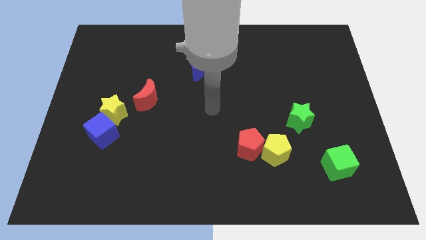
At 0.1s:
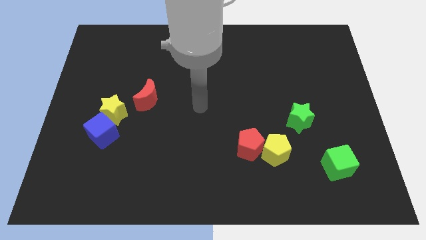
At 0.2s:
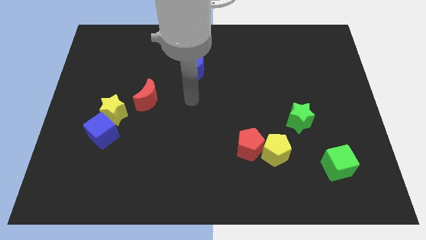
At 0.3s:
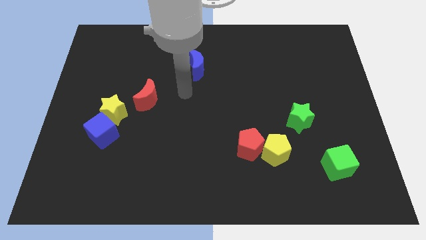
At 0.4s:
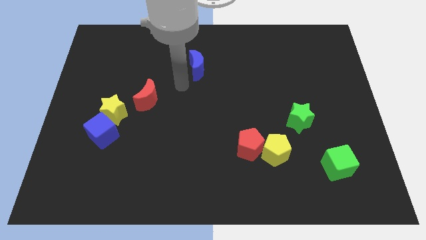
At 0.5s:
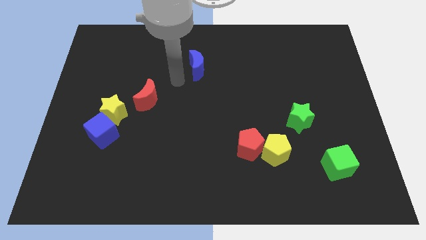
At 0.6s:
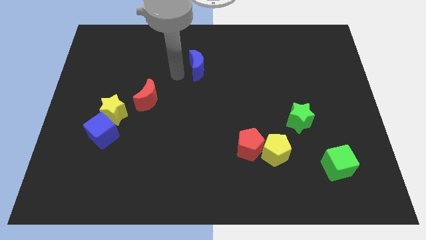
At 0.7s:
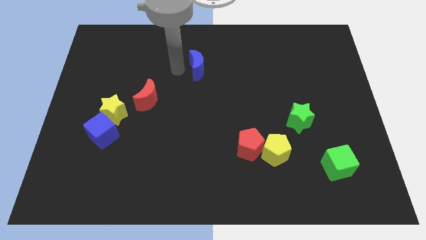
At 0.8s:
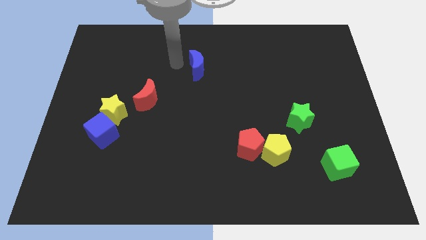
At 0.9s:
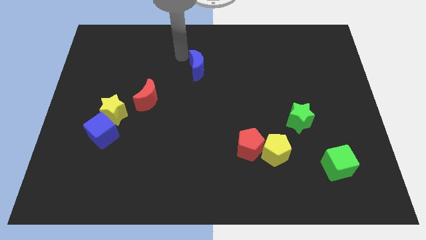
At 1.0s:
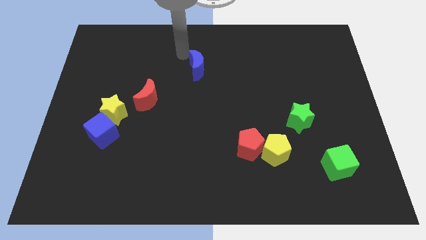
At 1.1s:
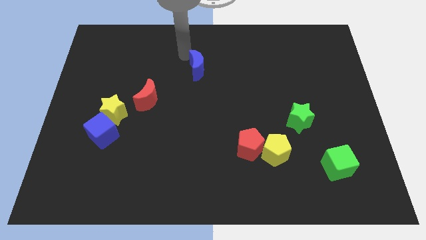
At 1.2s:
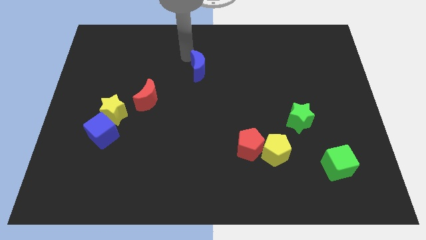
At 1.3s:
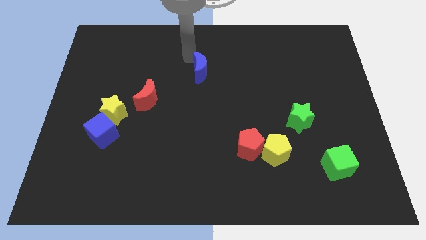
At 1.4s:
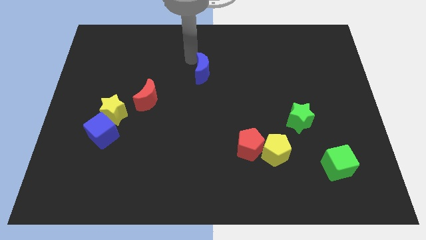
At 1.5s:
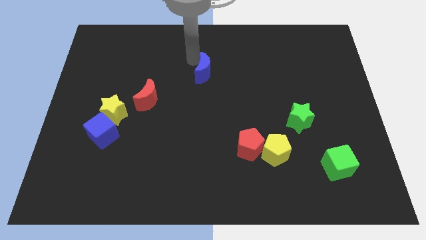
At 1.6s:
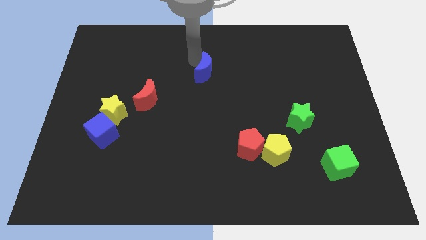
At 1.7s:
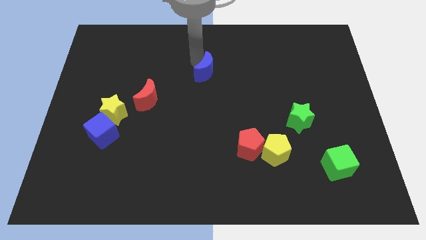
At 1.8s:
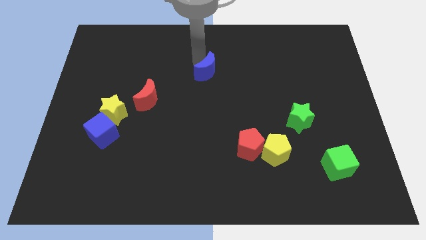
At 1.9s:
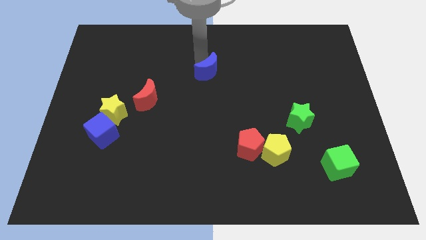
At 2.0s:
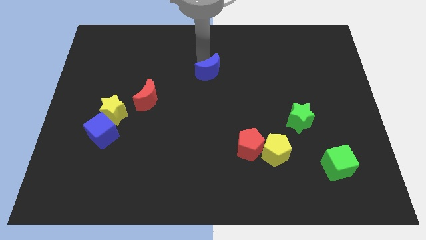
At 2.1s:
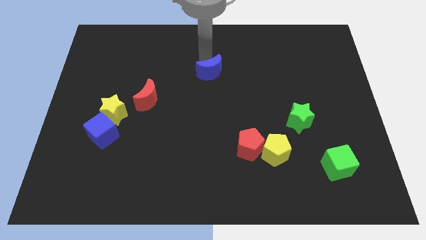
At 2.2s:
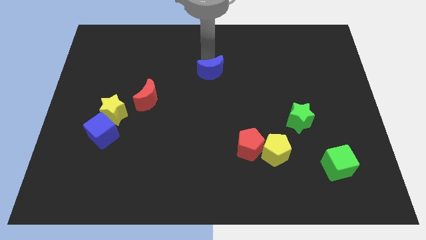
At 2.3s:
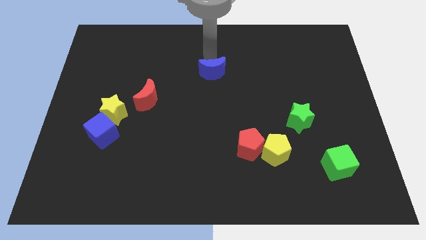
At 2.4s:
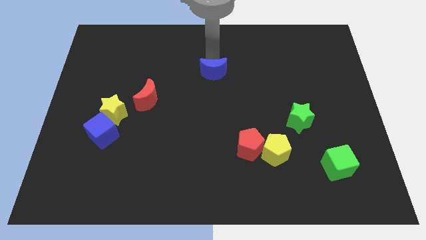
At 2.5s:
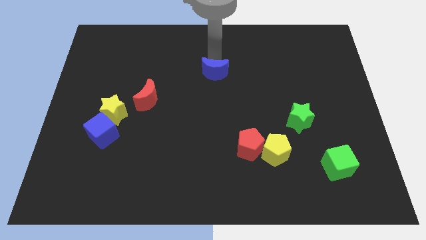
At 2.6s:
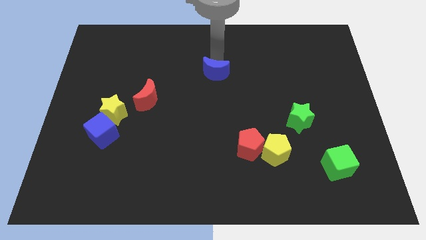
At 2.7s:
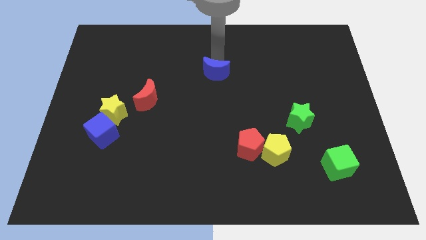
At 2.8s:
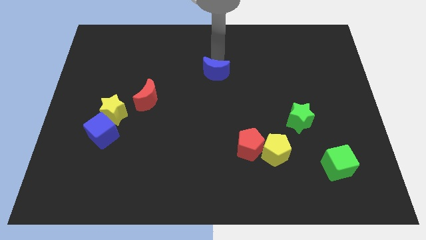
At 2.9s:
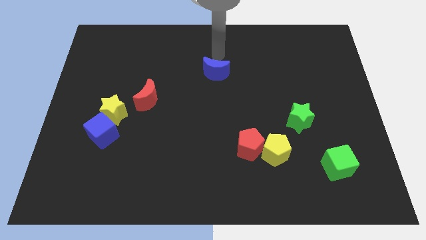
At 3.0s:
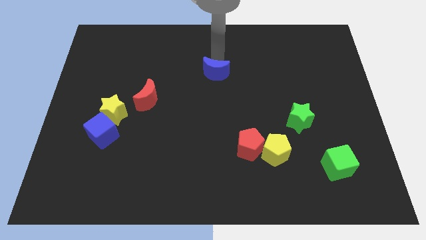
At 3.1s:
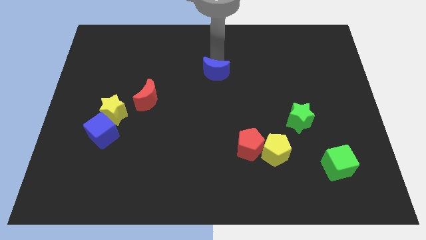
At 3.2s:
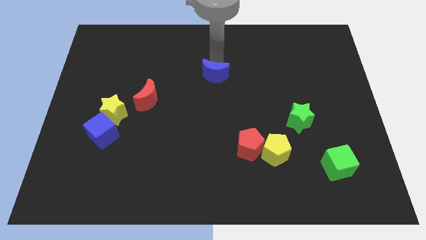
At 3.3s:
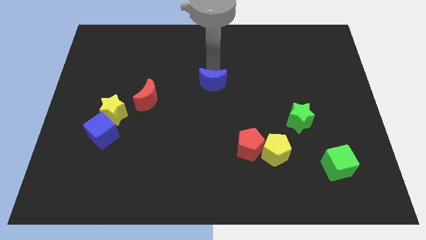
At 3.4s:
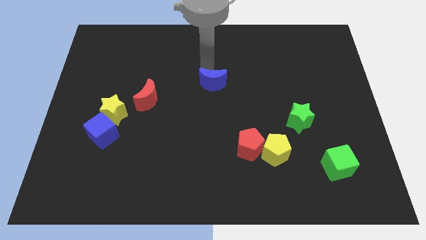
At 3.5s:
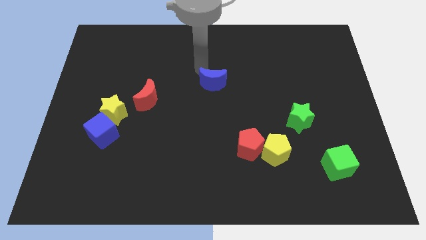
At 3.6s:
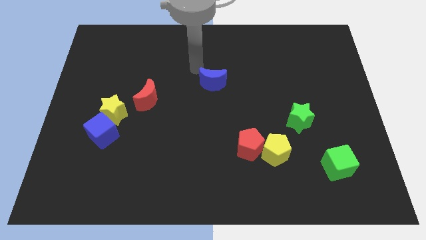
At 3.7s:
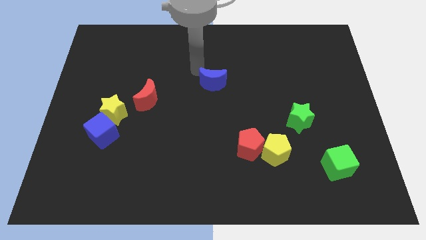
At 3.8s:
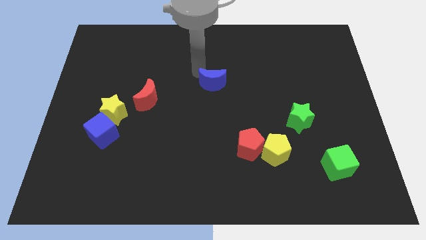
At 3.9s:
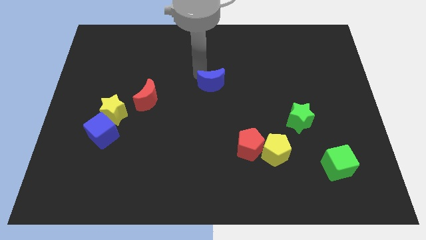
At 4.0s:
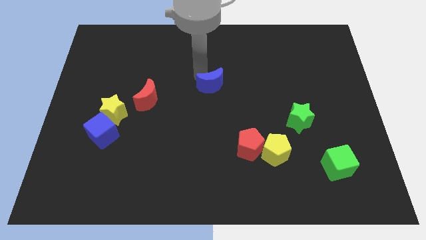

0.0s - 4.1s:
slide the blue moon downwards and right a little

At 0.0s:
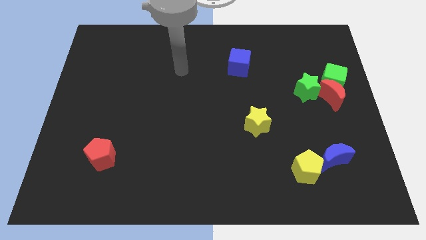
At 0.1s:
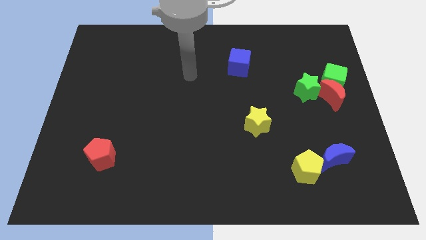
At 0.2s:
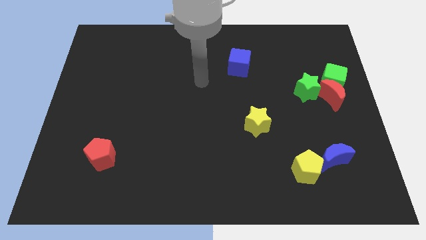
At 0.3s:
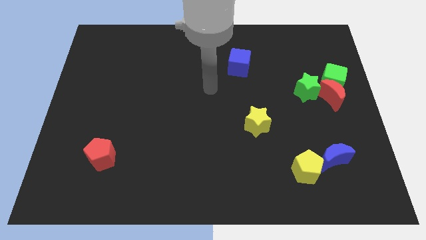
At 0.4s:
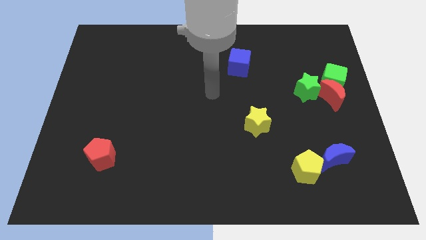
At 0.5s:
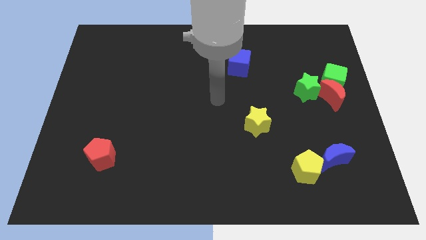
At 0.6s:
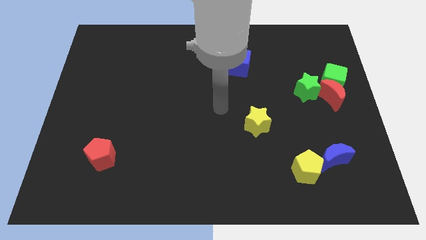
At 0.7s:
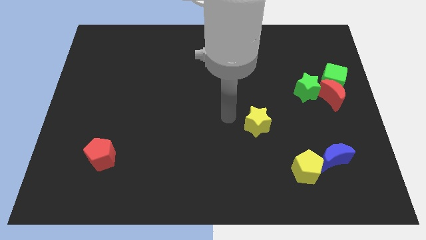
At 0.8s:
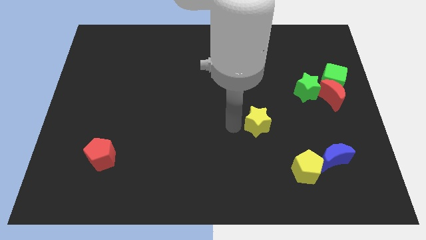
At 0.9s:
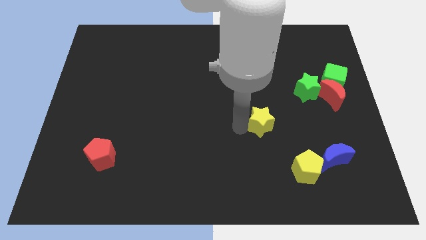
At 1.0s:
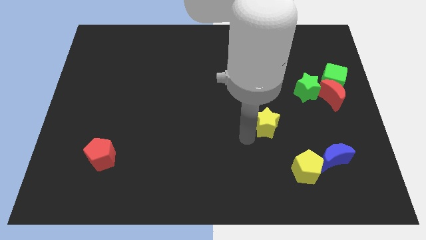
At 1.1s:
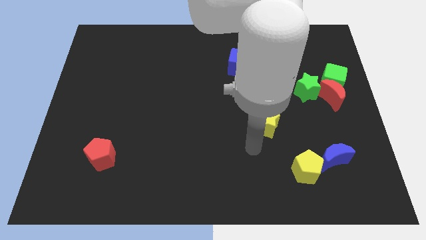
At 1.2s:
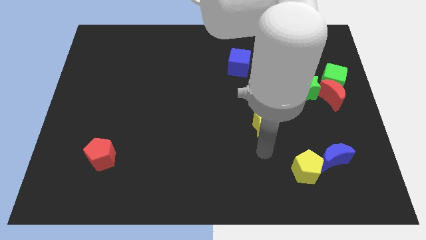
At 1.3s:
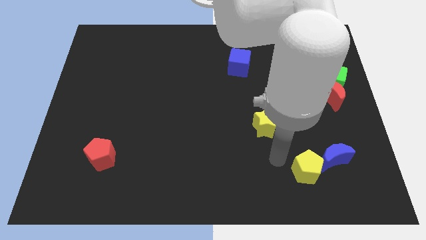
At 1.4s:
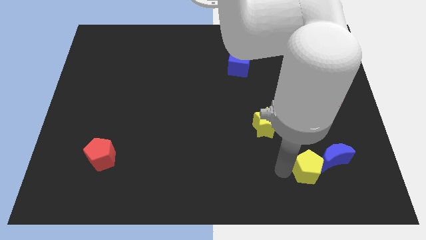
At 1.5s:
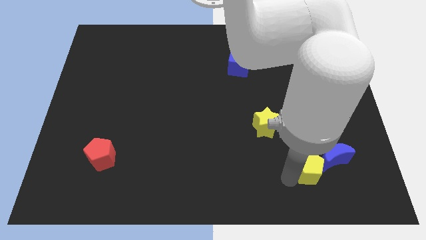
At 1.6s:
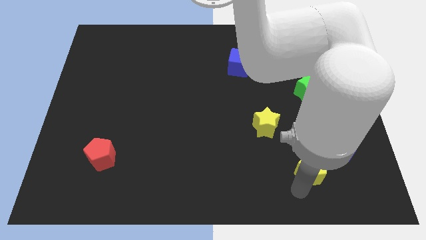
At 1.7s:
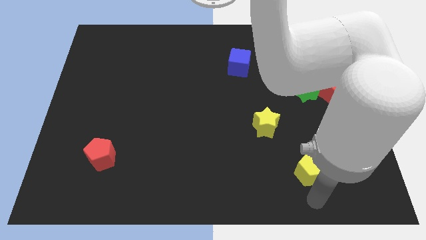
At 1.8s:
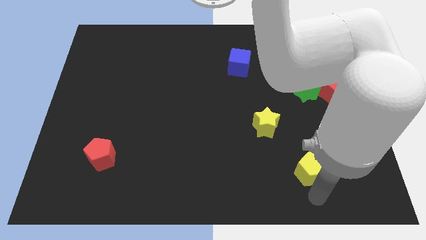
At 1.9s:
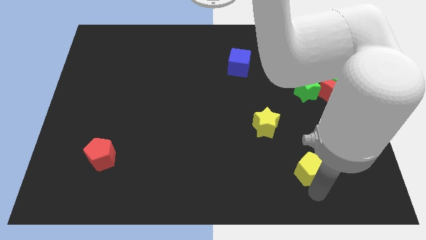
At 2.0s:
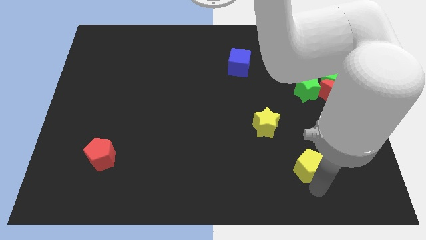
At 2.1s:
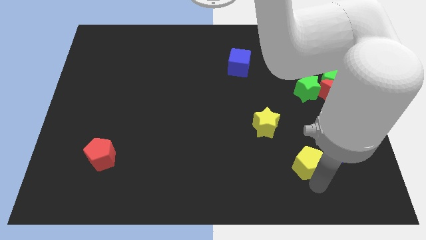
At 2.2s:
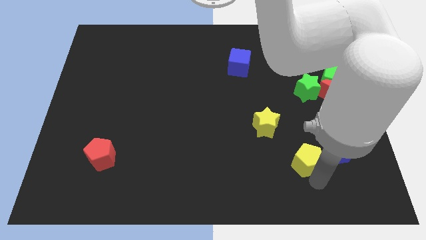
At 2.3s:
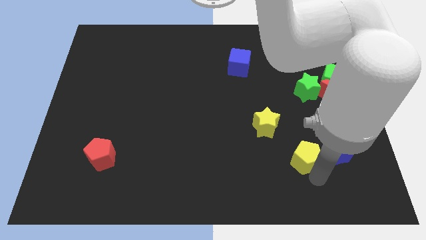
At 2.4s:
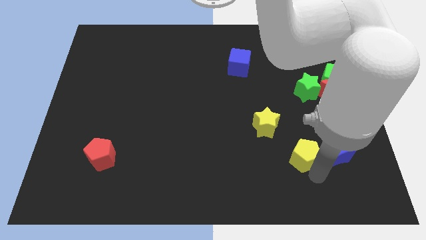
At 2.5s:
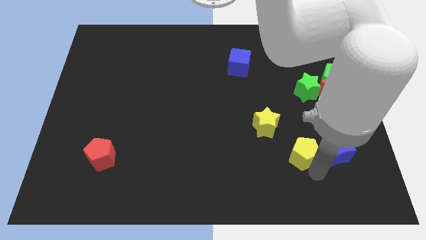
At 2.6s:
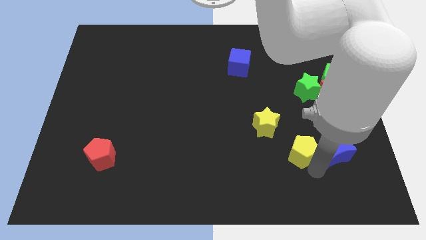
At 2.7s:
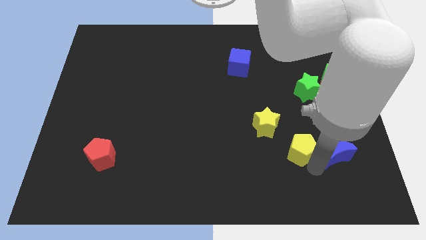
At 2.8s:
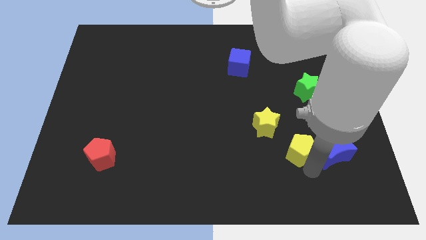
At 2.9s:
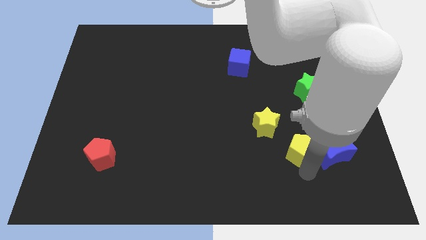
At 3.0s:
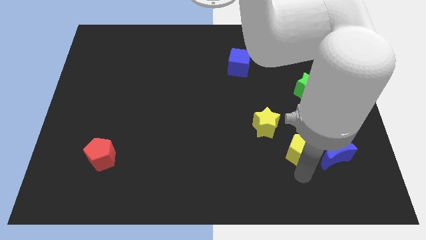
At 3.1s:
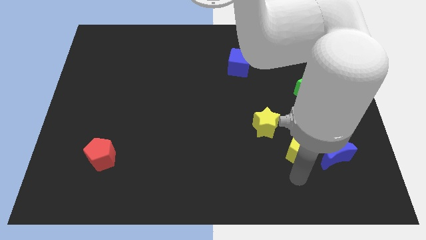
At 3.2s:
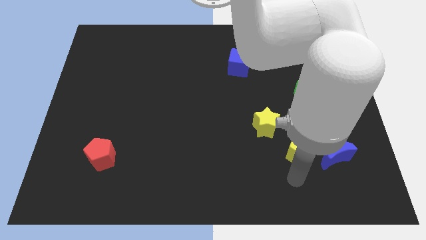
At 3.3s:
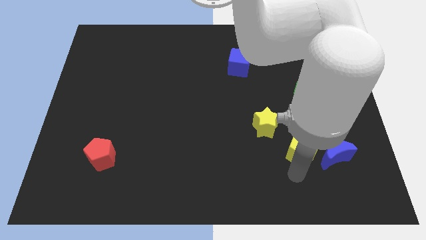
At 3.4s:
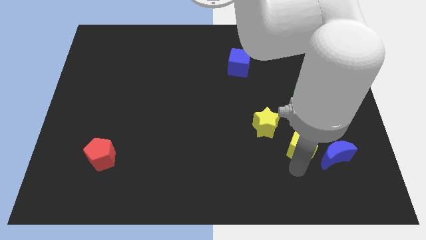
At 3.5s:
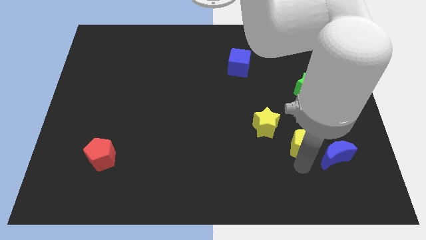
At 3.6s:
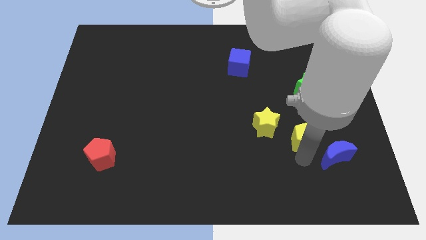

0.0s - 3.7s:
slide the yellow pentagon up a bit

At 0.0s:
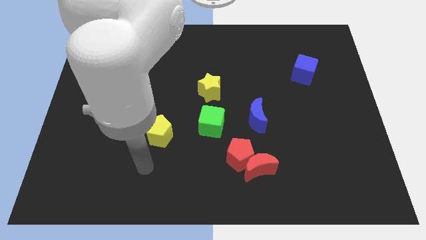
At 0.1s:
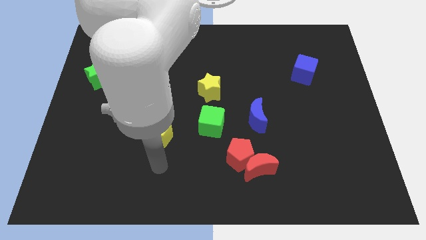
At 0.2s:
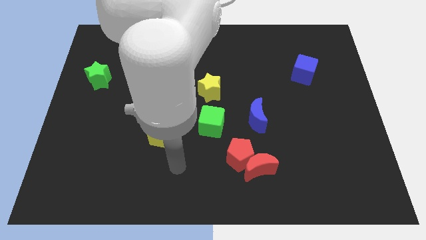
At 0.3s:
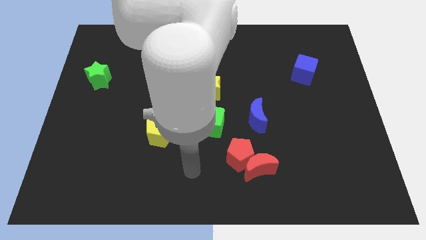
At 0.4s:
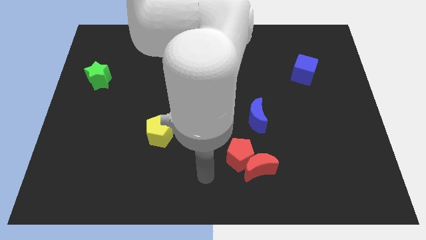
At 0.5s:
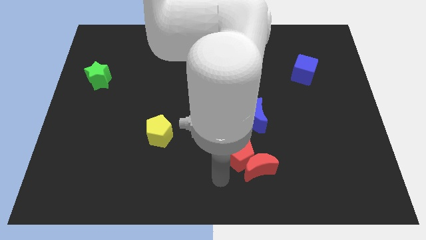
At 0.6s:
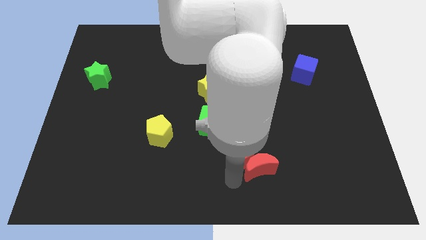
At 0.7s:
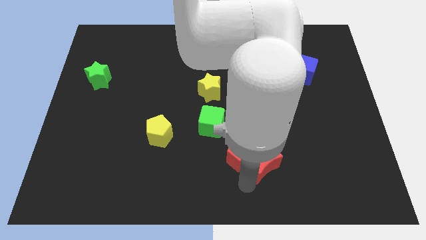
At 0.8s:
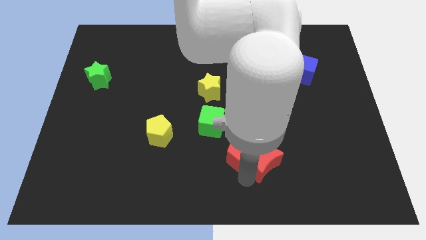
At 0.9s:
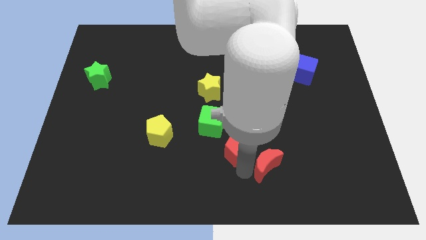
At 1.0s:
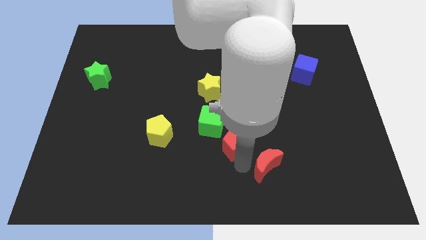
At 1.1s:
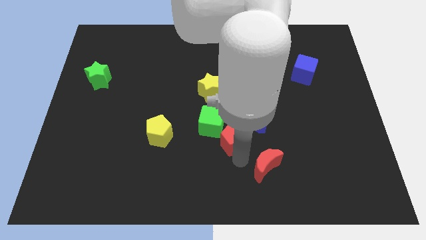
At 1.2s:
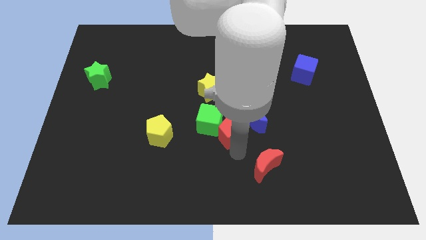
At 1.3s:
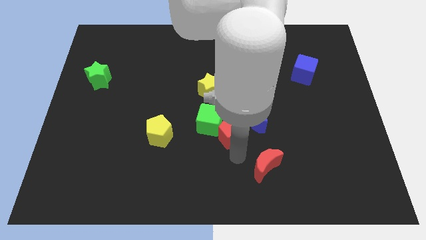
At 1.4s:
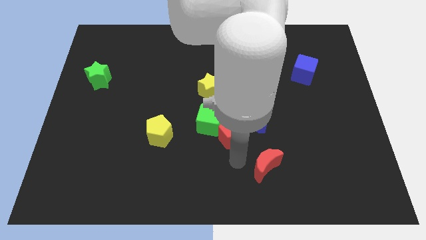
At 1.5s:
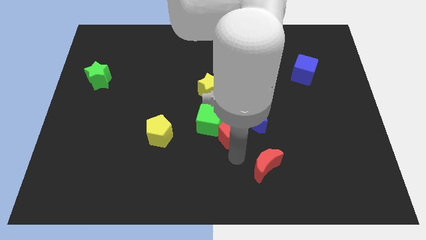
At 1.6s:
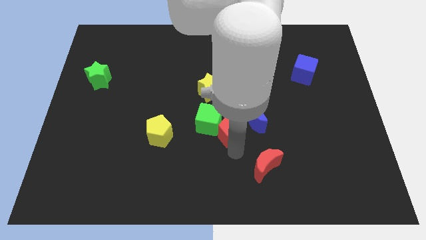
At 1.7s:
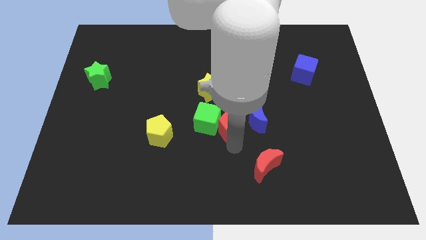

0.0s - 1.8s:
push the red pentagon a bit up
